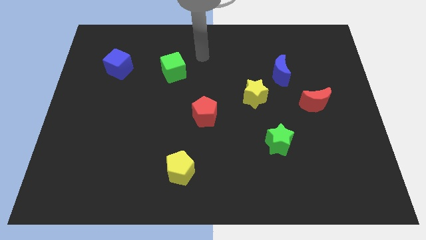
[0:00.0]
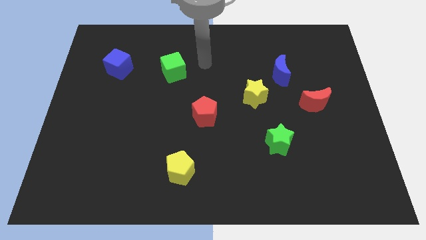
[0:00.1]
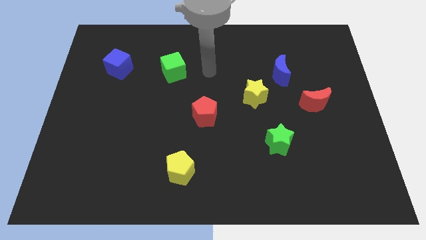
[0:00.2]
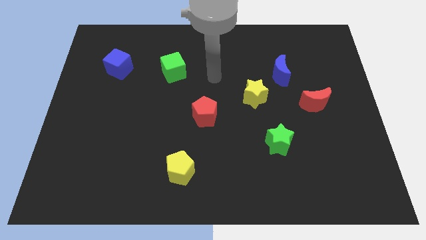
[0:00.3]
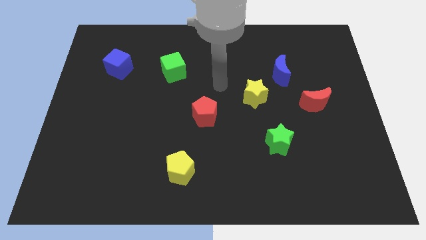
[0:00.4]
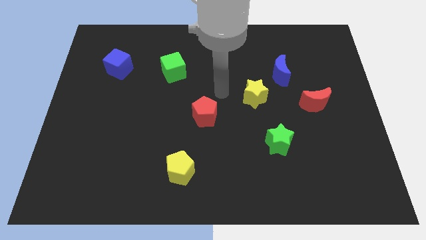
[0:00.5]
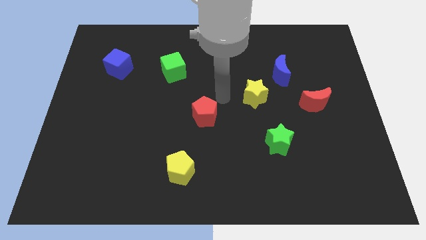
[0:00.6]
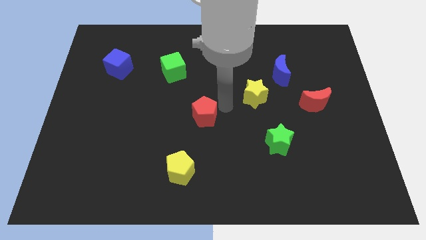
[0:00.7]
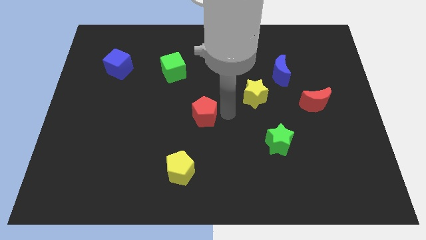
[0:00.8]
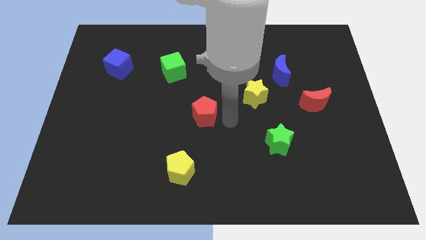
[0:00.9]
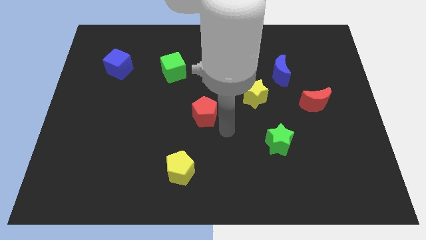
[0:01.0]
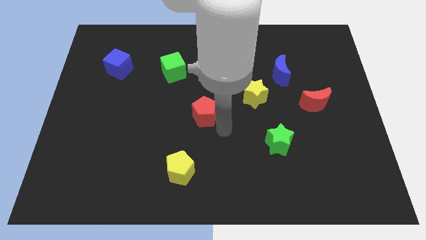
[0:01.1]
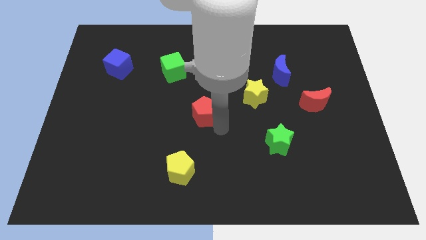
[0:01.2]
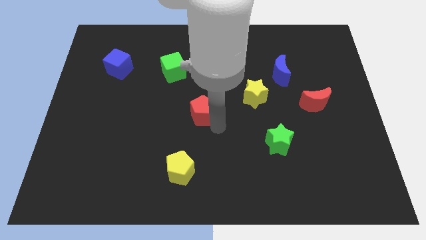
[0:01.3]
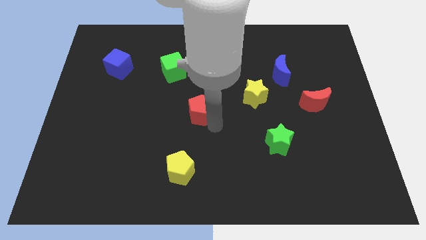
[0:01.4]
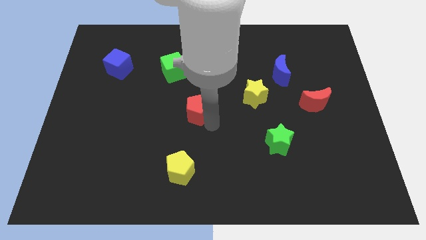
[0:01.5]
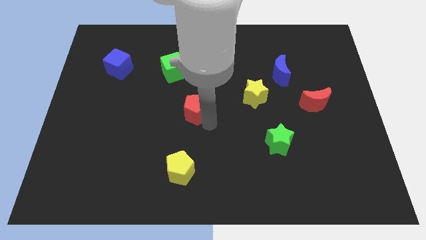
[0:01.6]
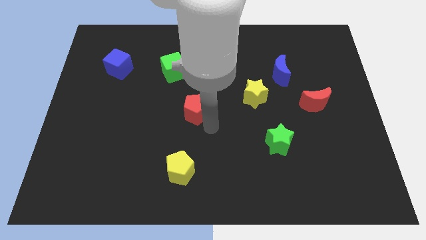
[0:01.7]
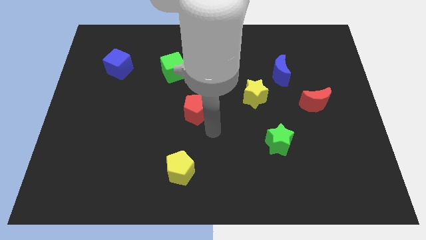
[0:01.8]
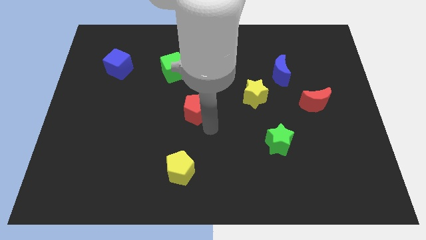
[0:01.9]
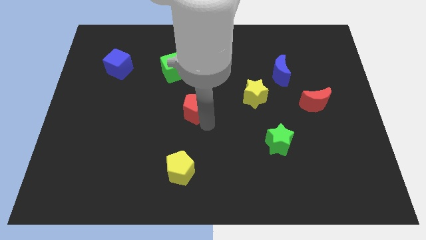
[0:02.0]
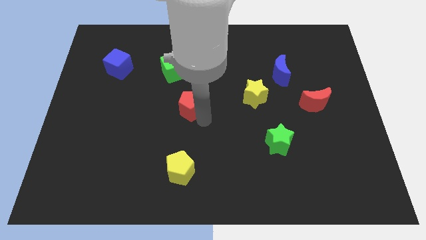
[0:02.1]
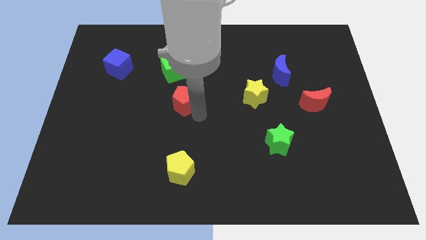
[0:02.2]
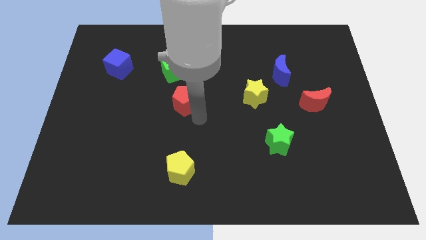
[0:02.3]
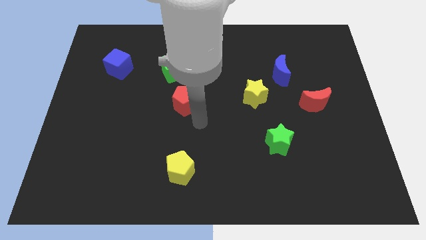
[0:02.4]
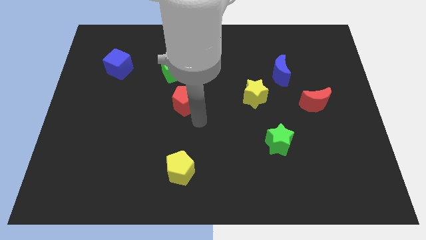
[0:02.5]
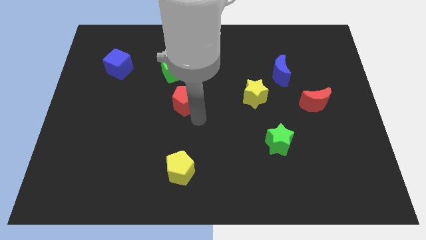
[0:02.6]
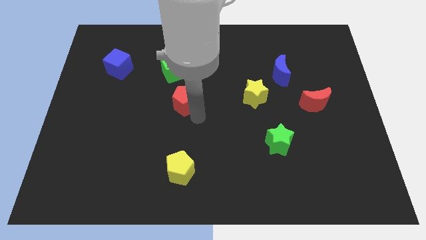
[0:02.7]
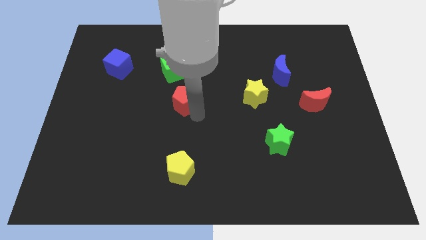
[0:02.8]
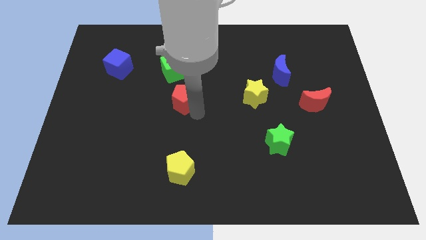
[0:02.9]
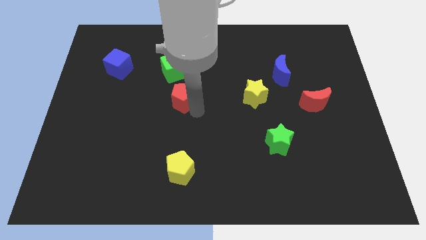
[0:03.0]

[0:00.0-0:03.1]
slightly push the red pentagon diagonally up and left

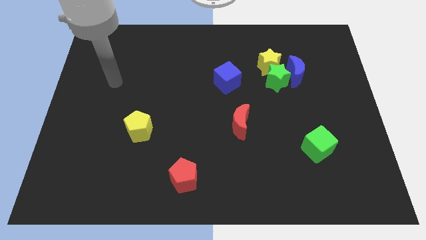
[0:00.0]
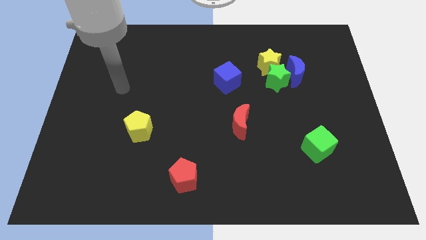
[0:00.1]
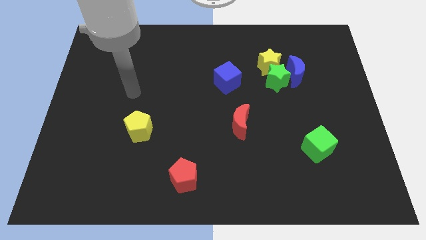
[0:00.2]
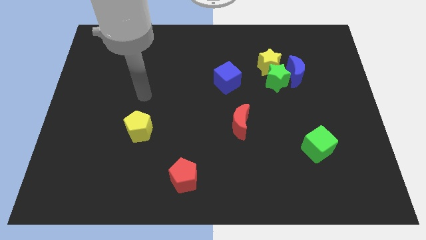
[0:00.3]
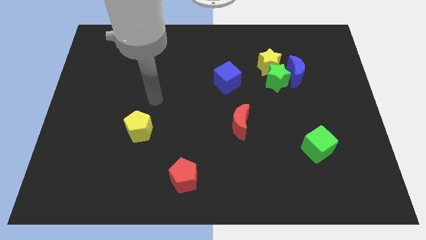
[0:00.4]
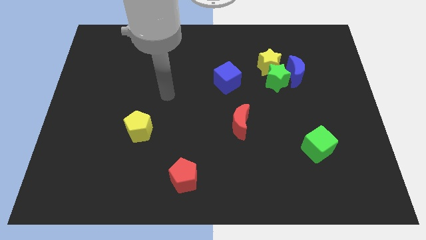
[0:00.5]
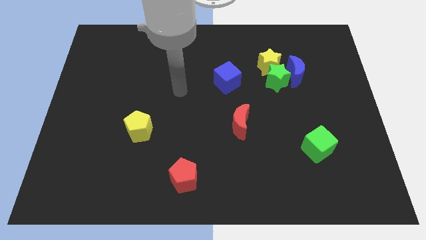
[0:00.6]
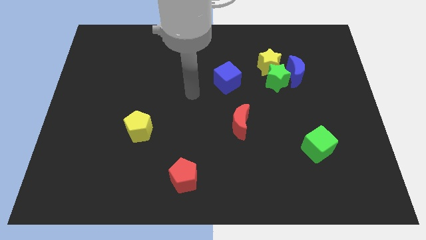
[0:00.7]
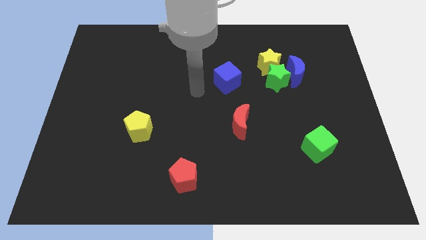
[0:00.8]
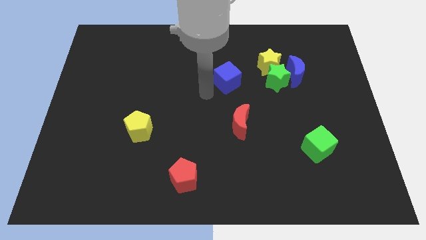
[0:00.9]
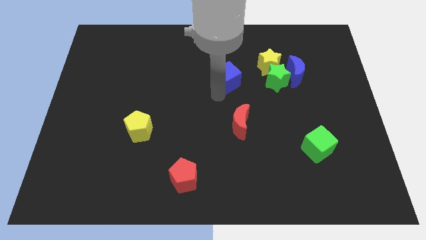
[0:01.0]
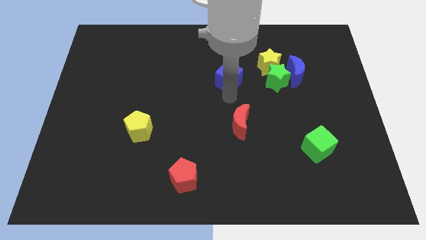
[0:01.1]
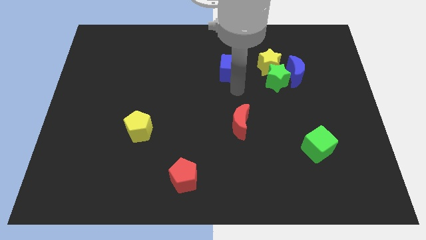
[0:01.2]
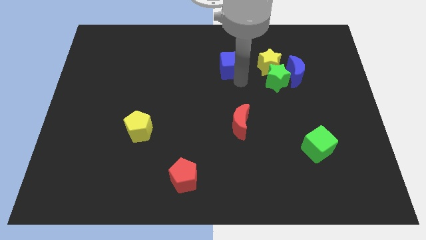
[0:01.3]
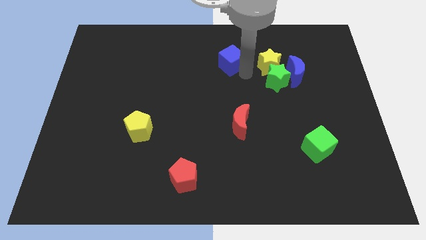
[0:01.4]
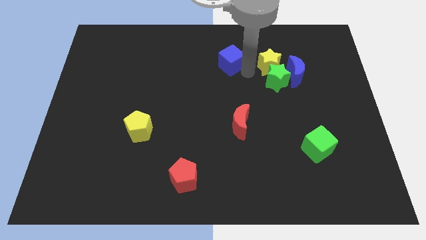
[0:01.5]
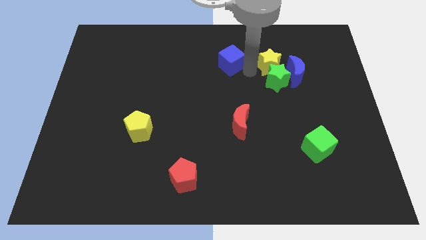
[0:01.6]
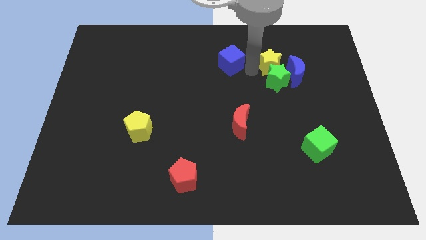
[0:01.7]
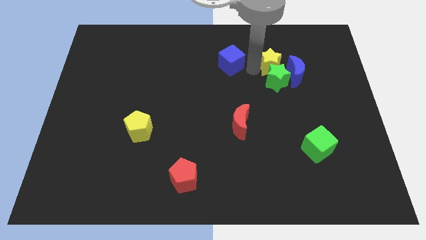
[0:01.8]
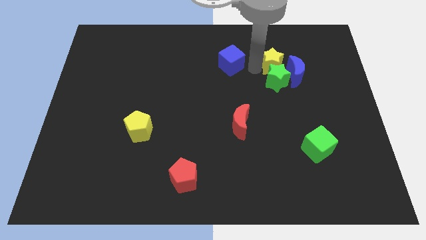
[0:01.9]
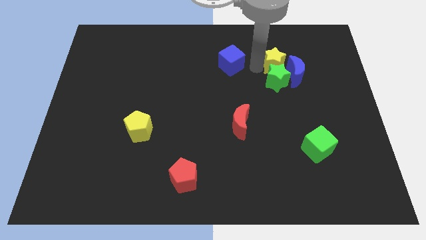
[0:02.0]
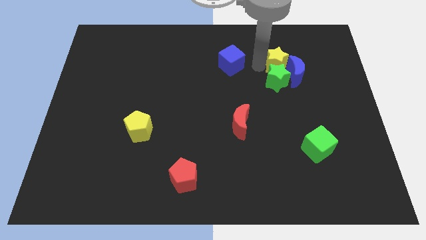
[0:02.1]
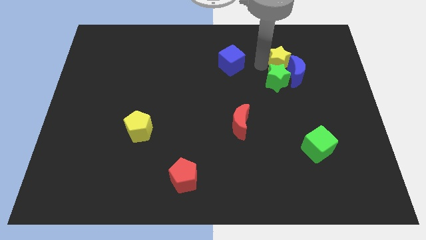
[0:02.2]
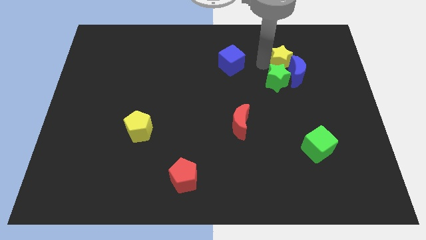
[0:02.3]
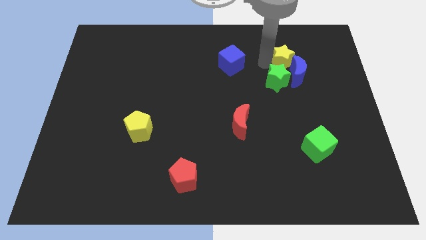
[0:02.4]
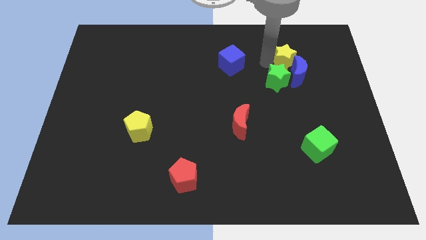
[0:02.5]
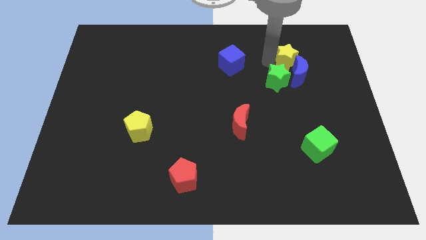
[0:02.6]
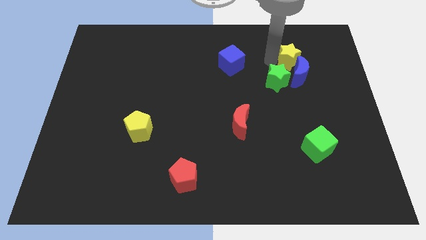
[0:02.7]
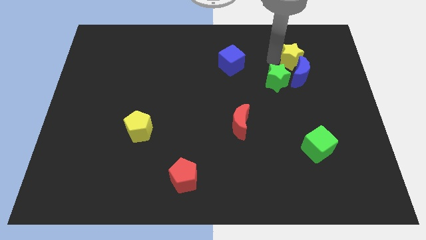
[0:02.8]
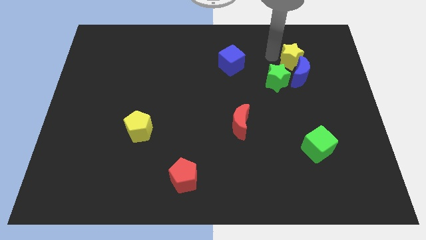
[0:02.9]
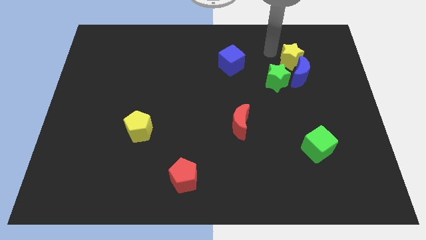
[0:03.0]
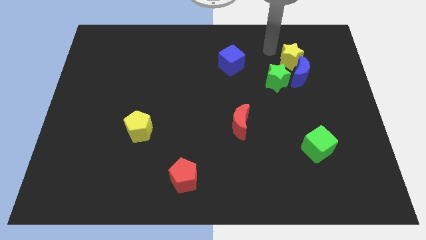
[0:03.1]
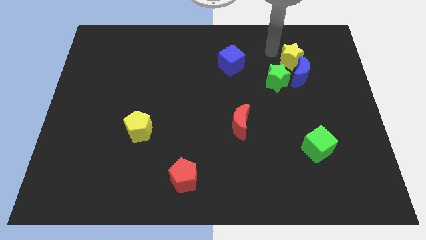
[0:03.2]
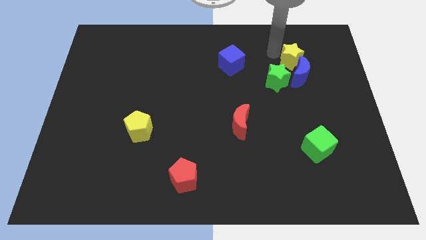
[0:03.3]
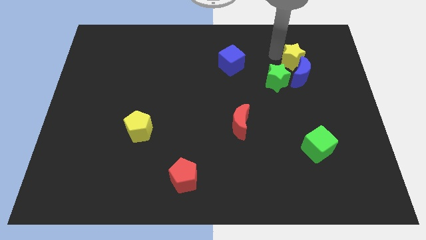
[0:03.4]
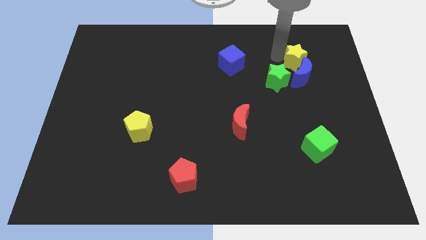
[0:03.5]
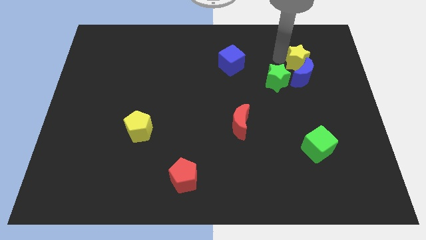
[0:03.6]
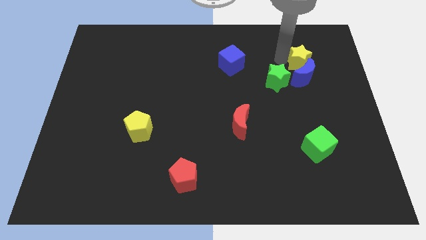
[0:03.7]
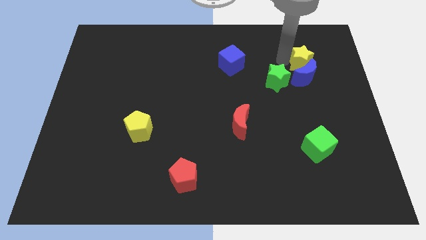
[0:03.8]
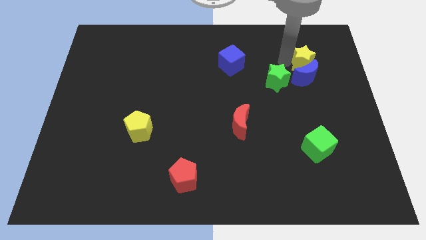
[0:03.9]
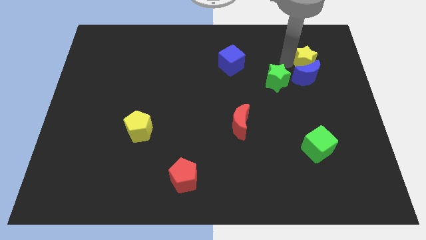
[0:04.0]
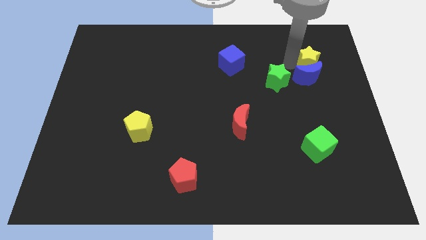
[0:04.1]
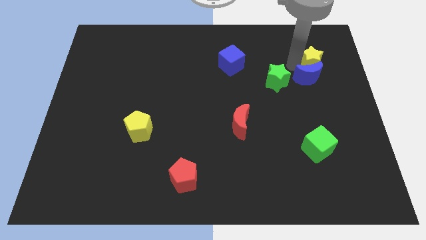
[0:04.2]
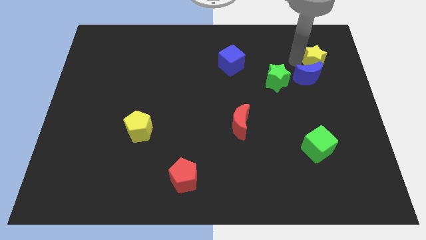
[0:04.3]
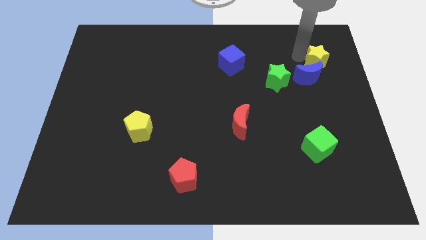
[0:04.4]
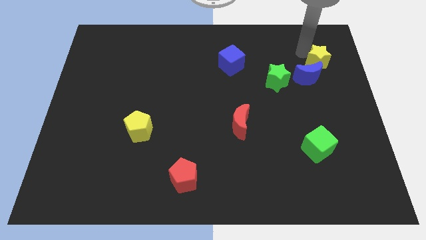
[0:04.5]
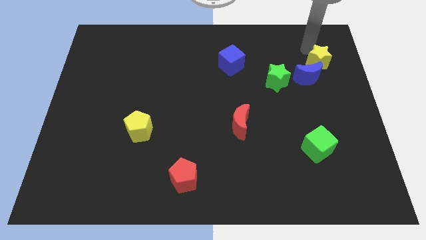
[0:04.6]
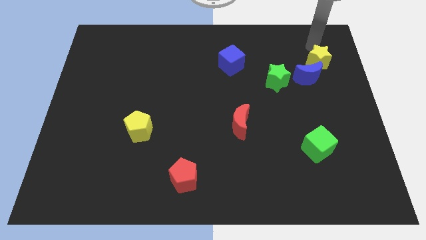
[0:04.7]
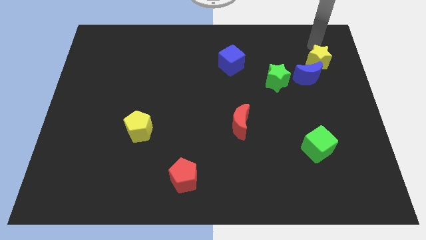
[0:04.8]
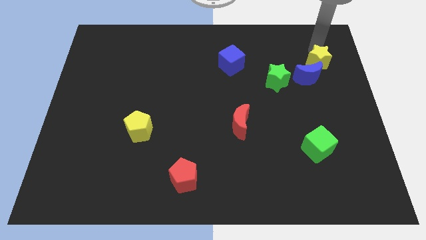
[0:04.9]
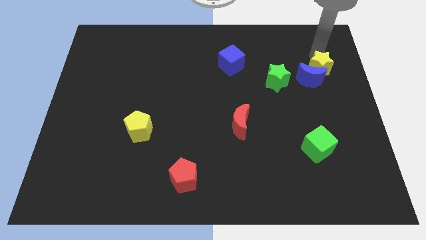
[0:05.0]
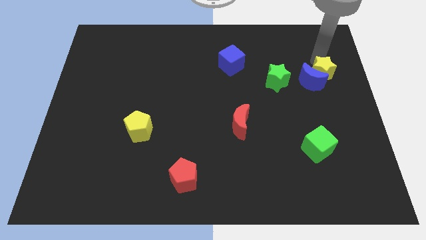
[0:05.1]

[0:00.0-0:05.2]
slide the yellow star downwards and right a little
